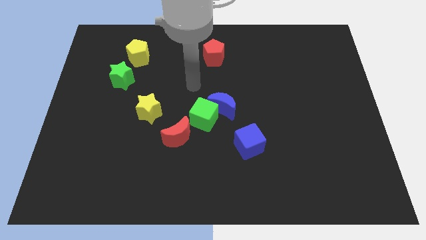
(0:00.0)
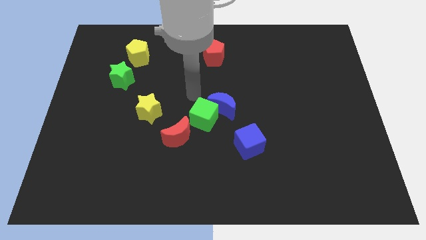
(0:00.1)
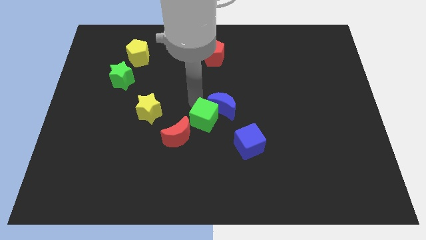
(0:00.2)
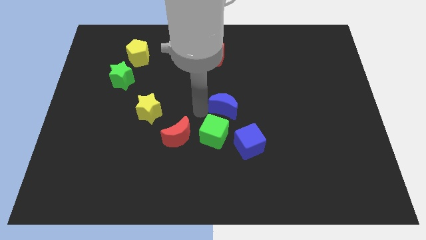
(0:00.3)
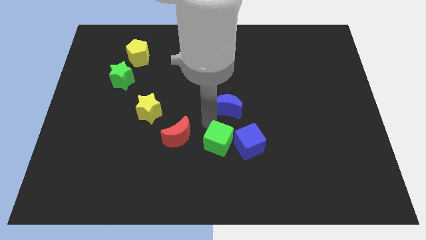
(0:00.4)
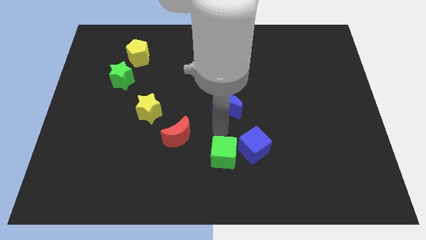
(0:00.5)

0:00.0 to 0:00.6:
separate the blue moon from the green cube

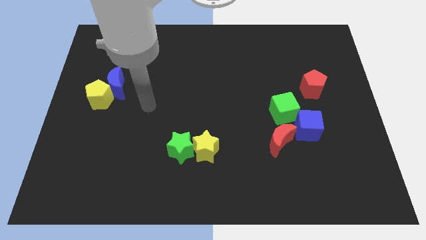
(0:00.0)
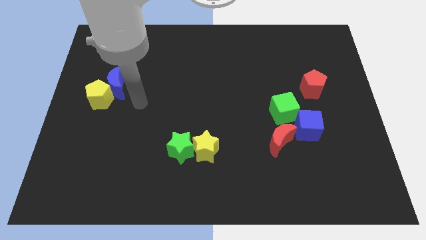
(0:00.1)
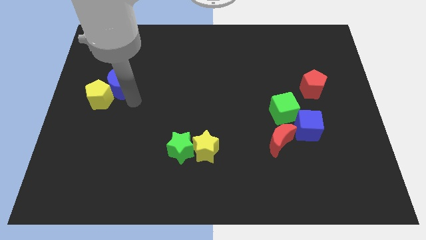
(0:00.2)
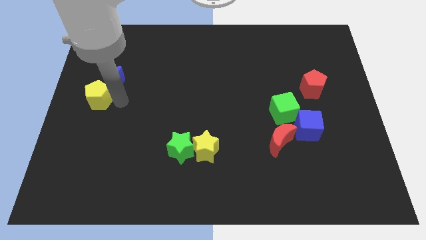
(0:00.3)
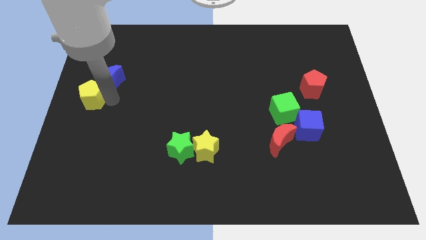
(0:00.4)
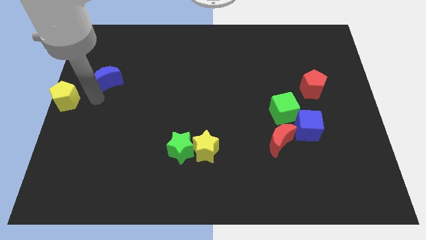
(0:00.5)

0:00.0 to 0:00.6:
pull the blue moon apart from the yellow pentagon

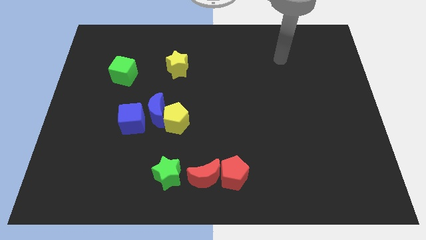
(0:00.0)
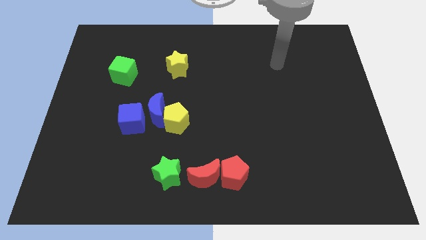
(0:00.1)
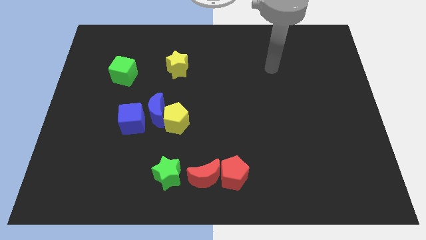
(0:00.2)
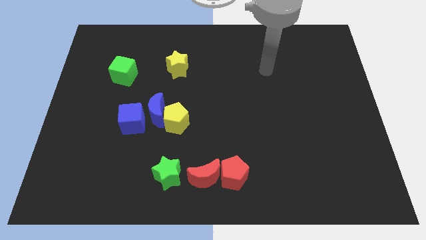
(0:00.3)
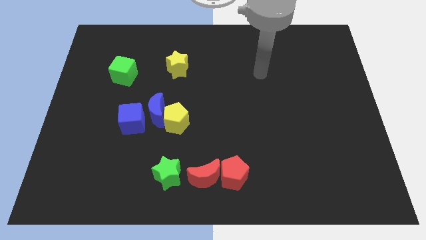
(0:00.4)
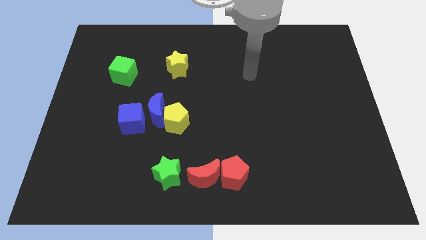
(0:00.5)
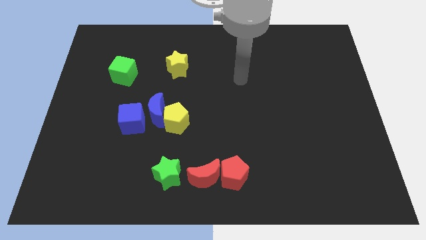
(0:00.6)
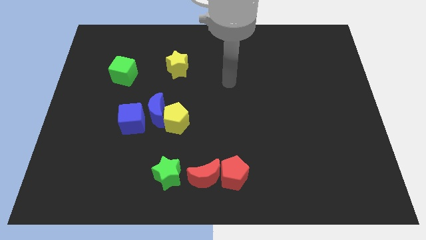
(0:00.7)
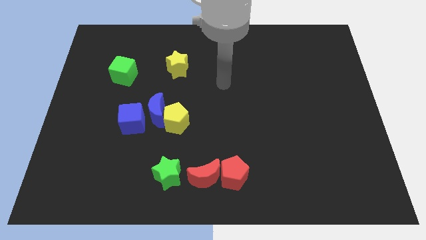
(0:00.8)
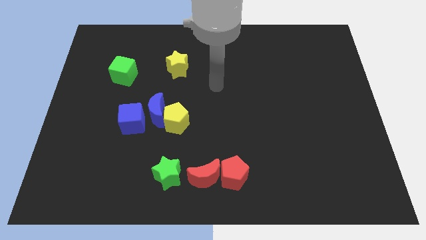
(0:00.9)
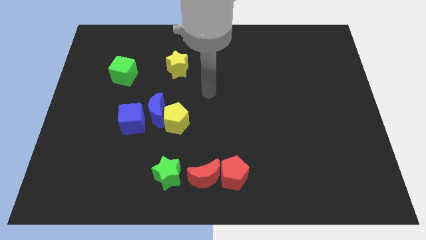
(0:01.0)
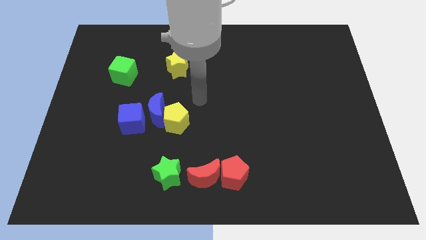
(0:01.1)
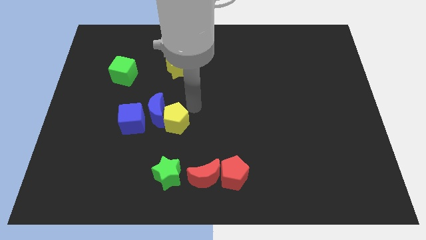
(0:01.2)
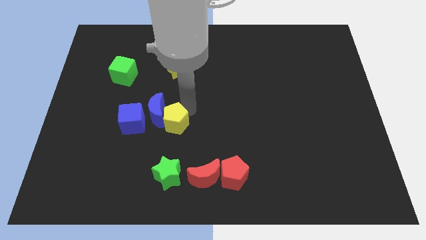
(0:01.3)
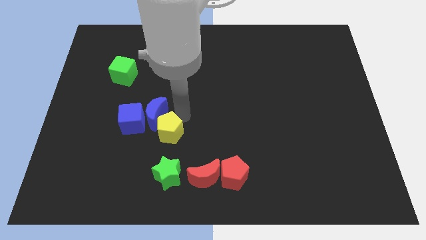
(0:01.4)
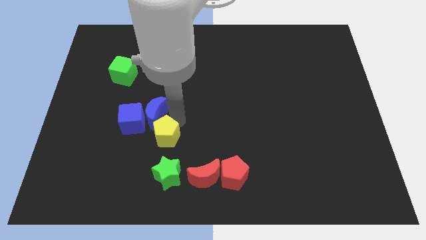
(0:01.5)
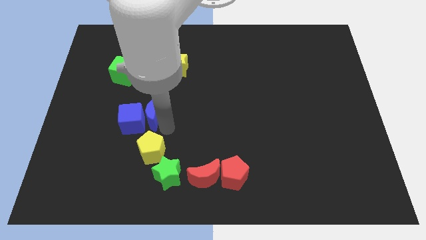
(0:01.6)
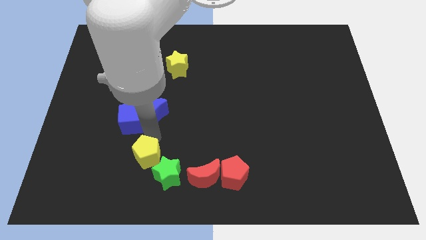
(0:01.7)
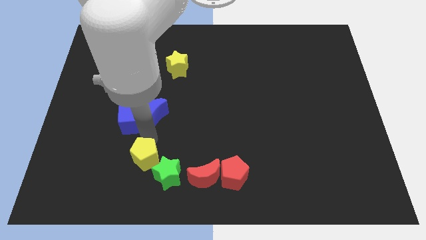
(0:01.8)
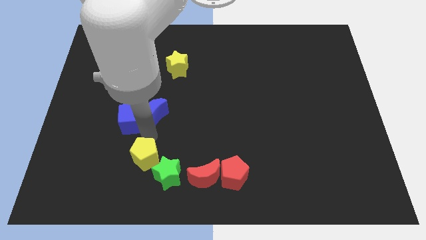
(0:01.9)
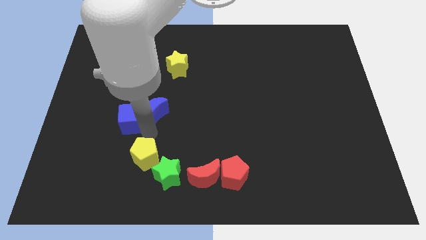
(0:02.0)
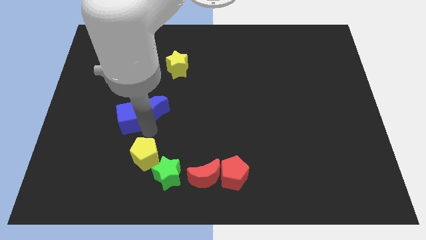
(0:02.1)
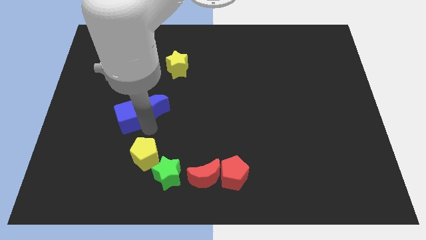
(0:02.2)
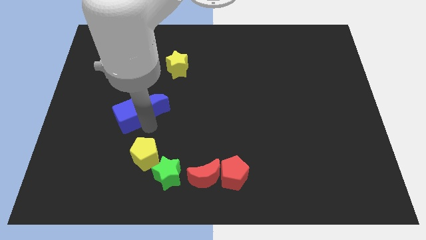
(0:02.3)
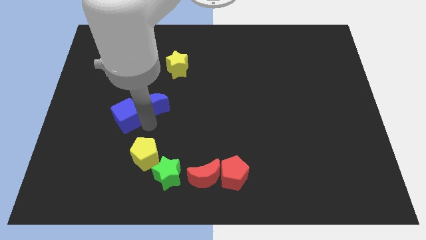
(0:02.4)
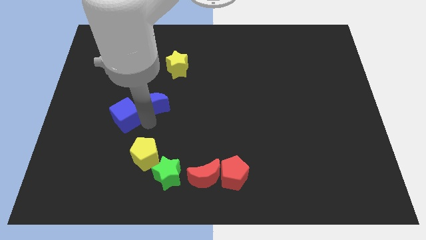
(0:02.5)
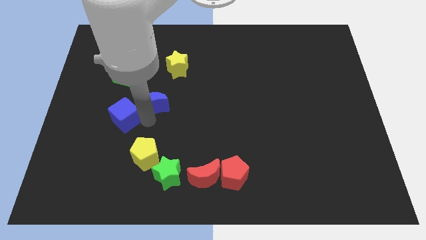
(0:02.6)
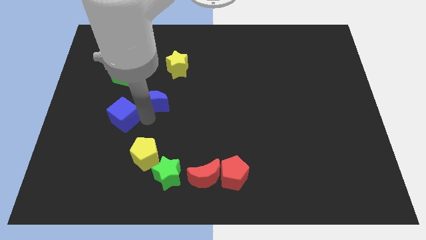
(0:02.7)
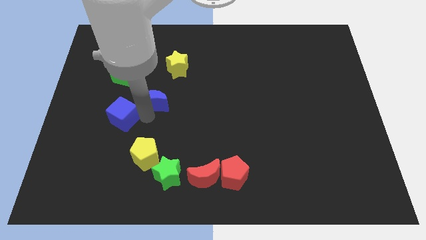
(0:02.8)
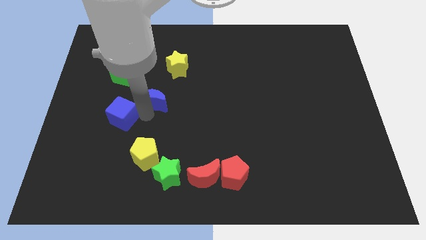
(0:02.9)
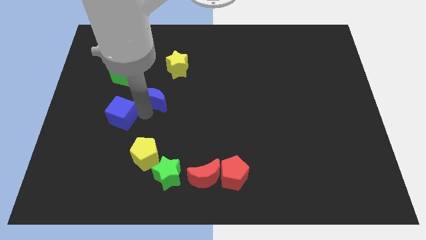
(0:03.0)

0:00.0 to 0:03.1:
pull the blue moon apart from the yellow pentagon and blue cube

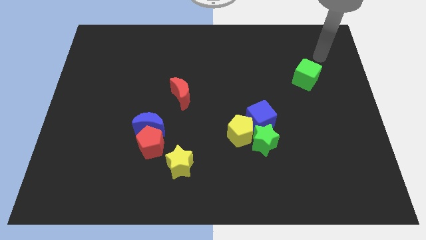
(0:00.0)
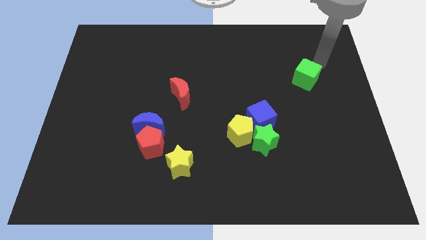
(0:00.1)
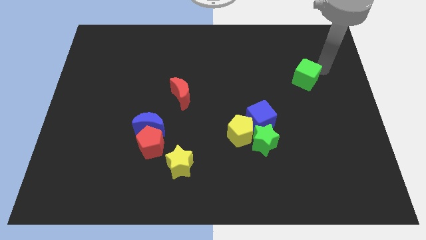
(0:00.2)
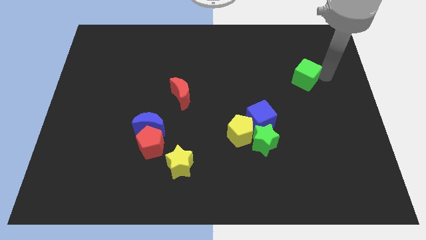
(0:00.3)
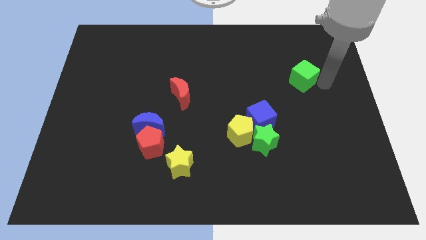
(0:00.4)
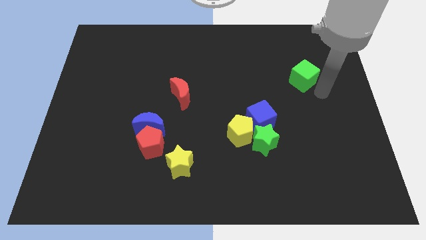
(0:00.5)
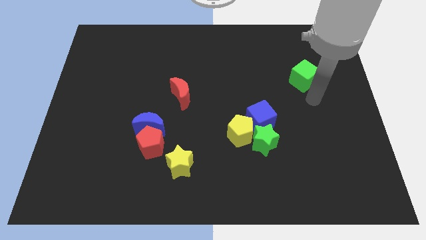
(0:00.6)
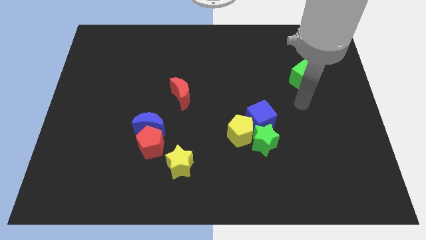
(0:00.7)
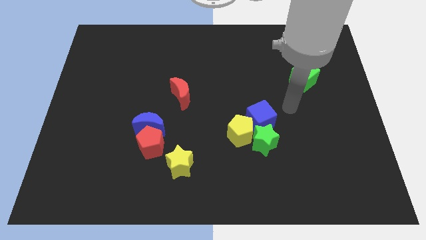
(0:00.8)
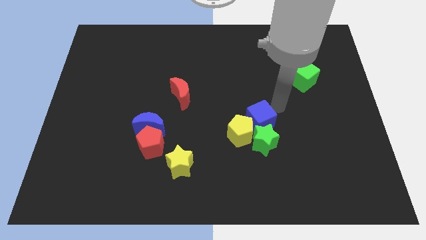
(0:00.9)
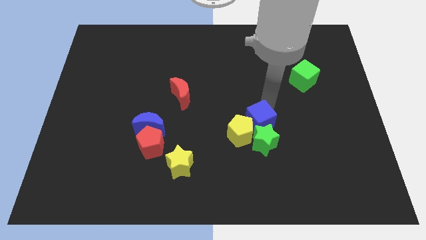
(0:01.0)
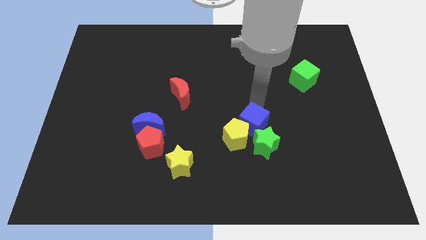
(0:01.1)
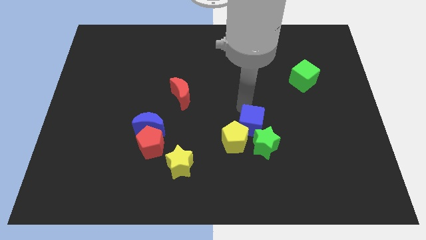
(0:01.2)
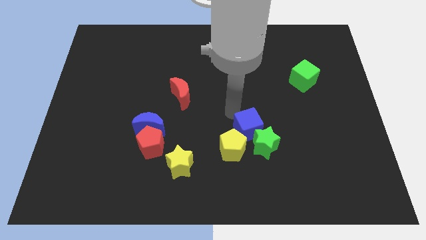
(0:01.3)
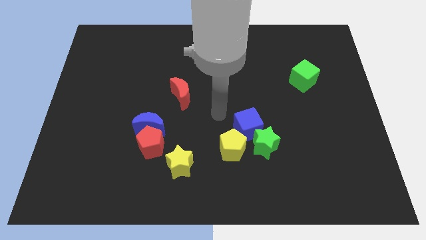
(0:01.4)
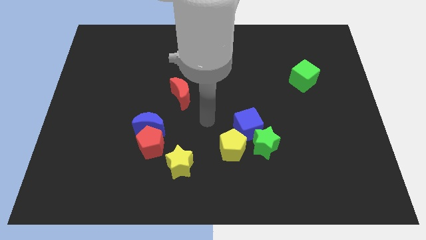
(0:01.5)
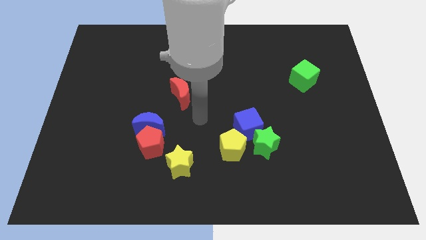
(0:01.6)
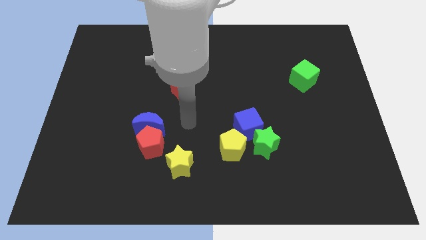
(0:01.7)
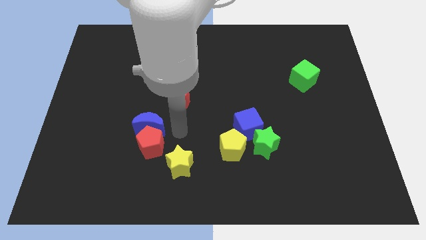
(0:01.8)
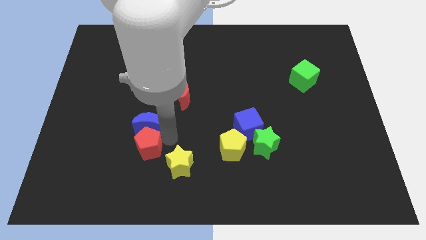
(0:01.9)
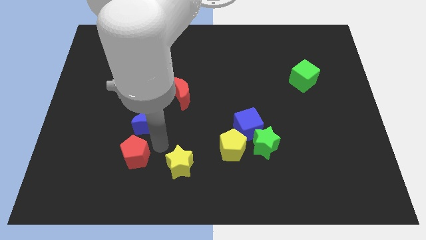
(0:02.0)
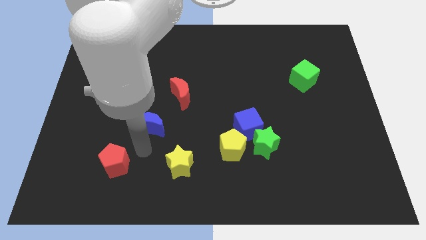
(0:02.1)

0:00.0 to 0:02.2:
pull the blue moon apart from the red pentagon

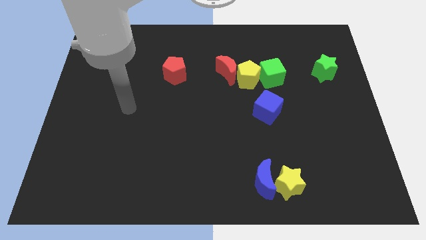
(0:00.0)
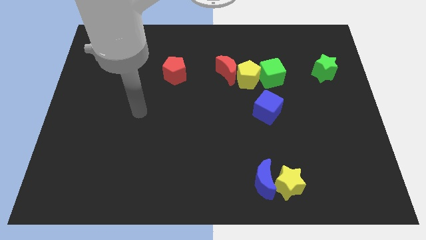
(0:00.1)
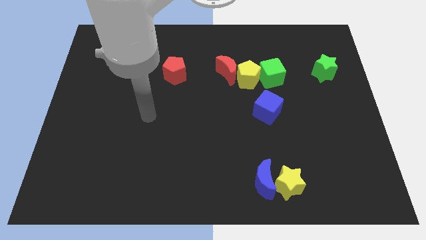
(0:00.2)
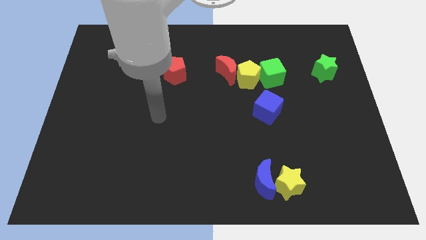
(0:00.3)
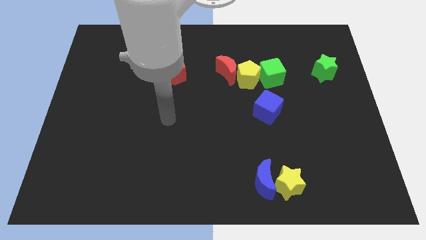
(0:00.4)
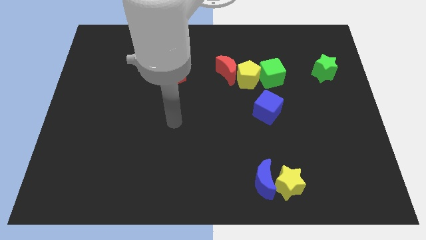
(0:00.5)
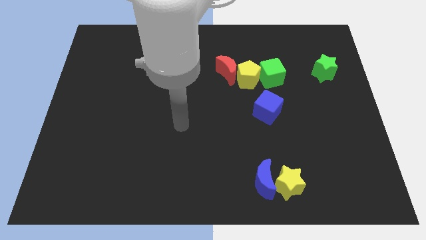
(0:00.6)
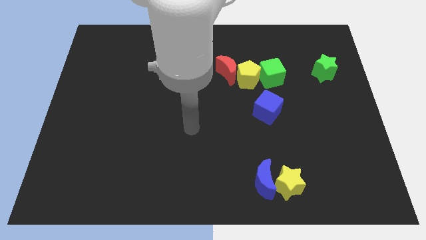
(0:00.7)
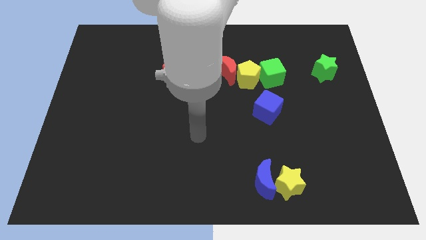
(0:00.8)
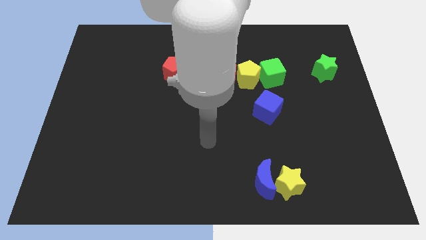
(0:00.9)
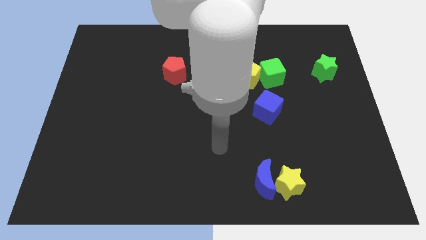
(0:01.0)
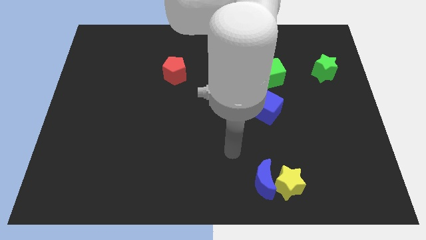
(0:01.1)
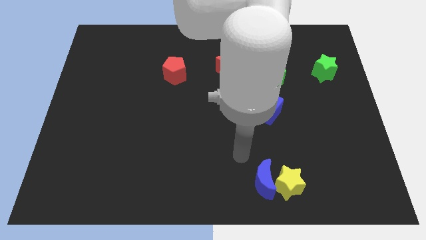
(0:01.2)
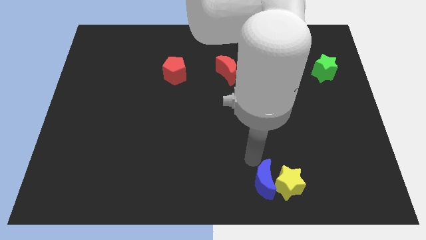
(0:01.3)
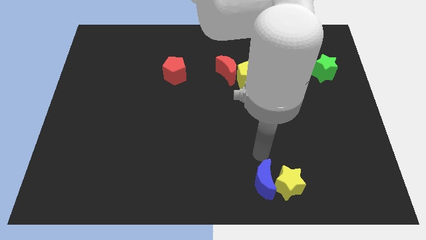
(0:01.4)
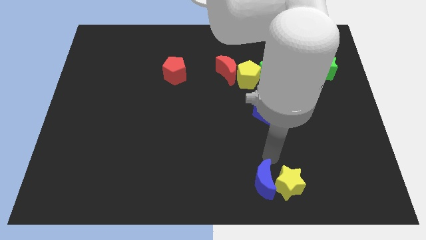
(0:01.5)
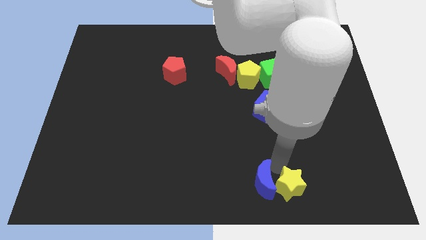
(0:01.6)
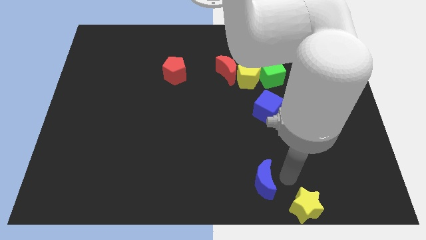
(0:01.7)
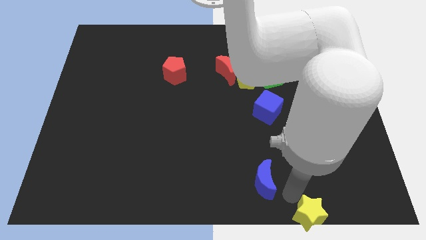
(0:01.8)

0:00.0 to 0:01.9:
pull the blue moon apart from the yellow star

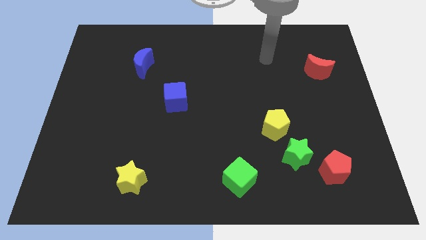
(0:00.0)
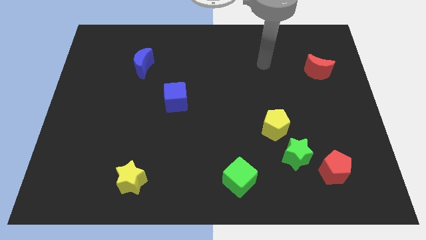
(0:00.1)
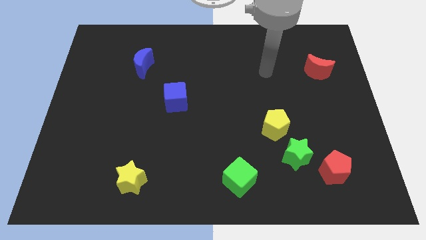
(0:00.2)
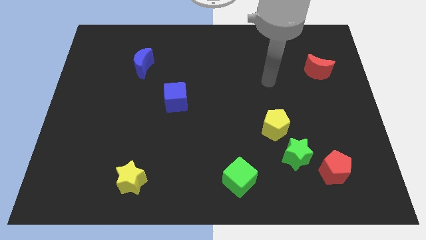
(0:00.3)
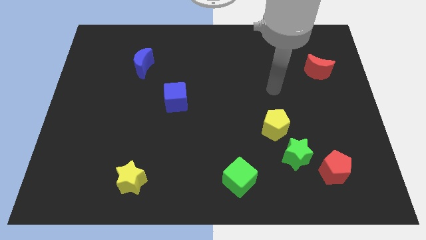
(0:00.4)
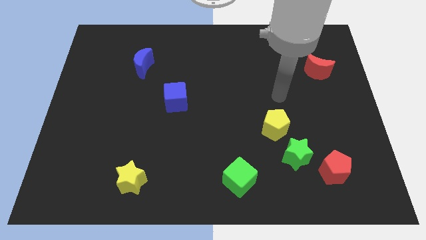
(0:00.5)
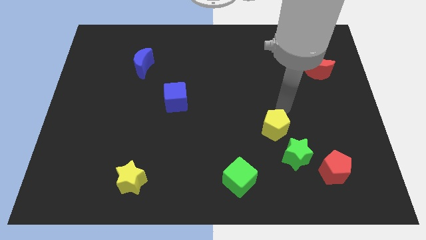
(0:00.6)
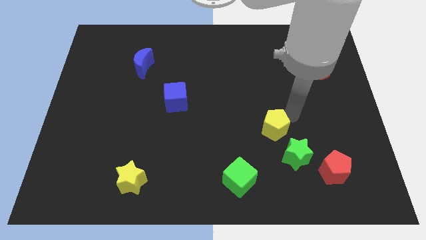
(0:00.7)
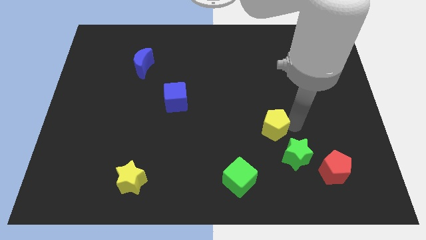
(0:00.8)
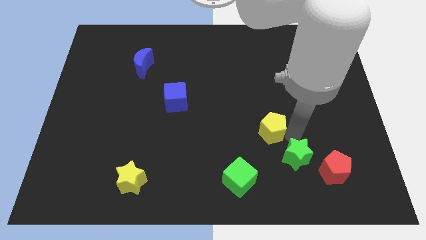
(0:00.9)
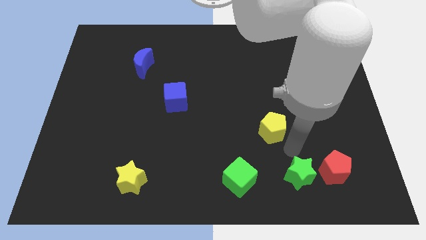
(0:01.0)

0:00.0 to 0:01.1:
pull the yellow pentagon apart from the green star
